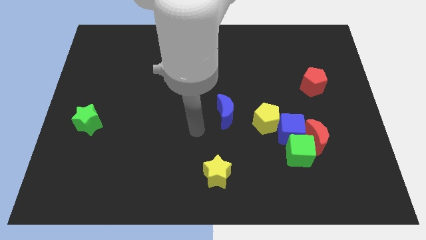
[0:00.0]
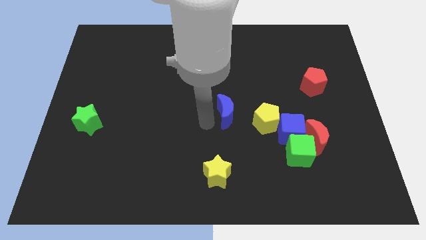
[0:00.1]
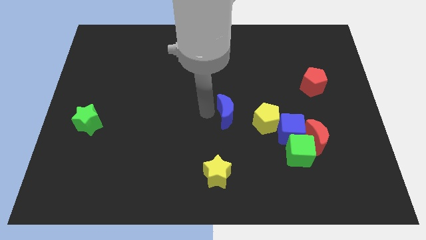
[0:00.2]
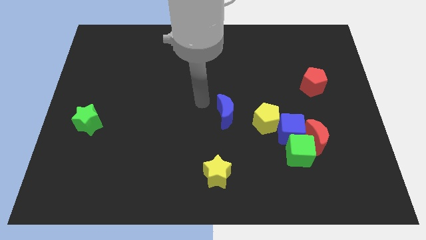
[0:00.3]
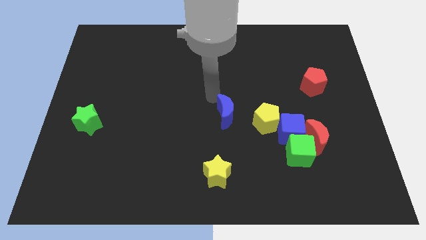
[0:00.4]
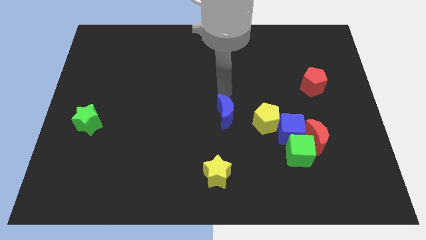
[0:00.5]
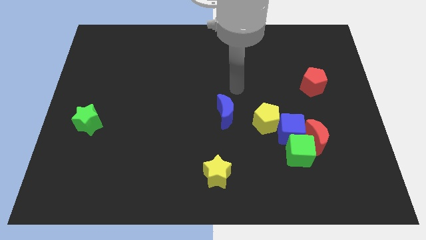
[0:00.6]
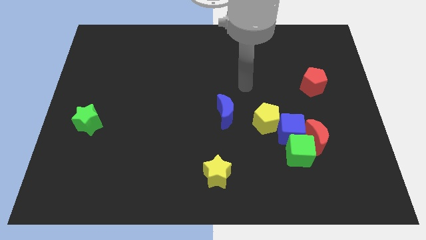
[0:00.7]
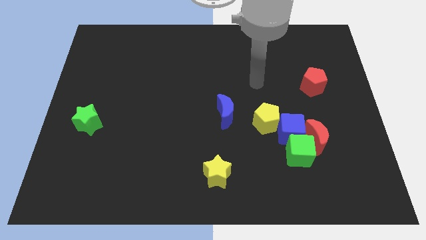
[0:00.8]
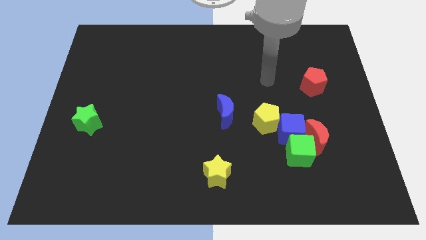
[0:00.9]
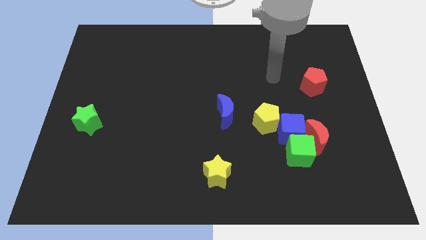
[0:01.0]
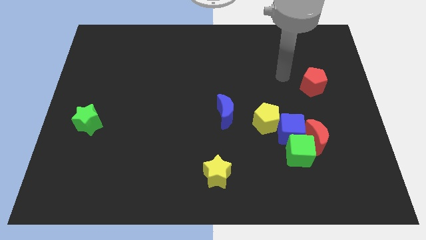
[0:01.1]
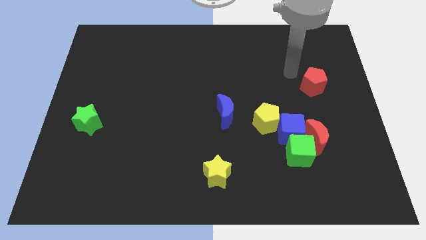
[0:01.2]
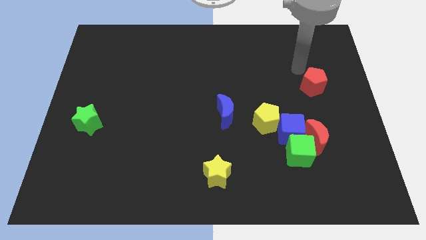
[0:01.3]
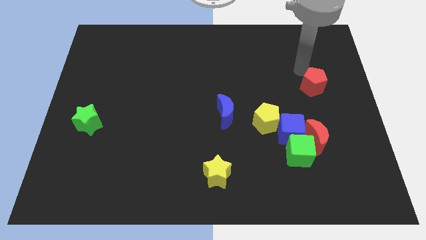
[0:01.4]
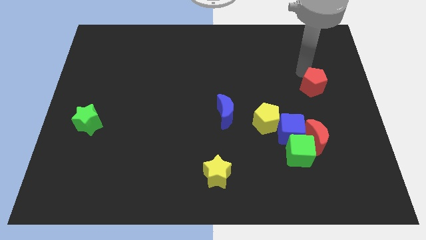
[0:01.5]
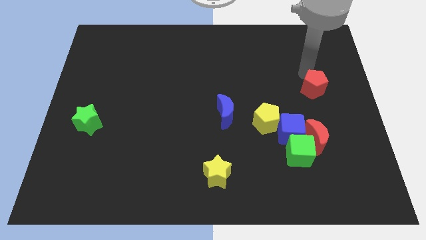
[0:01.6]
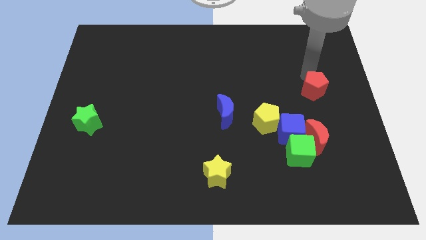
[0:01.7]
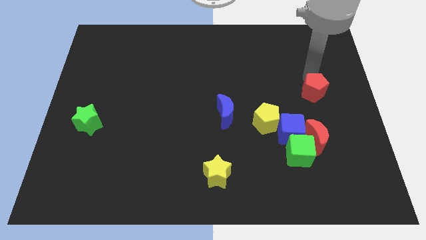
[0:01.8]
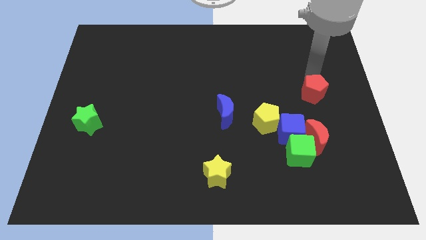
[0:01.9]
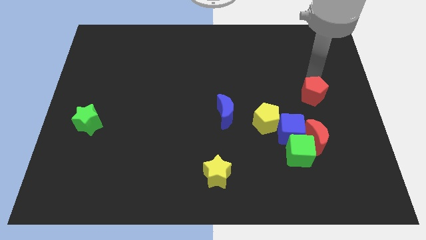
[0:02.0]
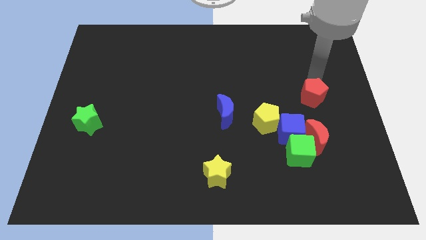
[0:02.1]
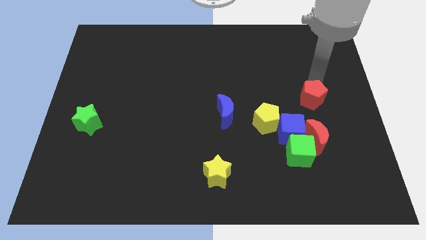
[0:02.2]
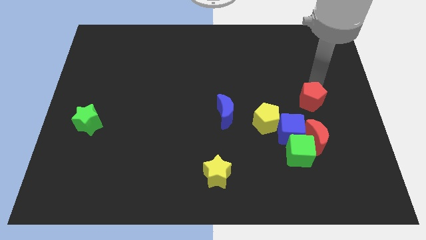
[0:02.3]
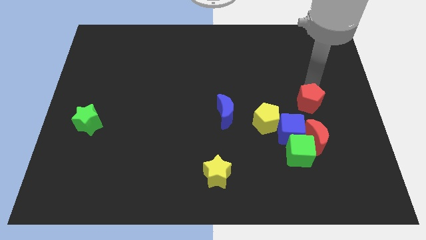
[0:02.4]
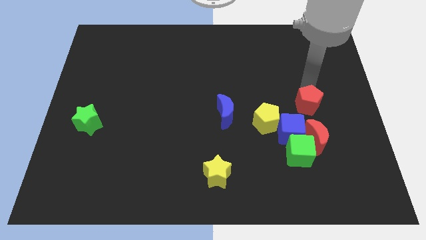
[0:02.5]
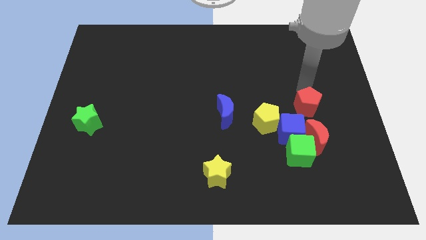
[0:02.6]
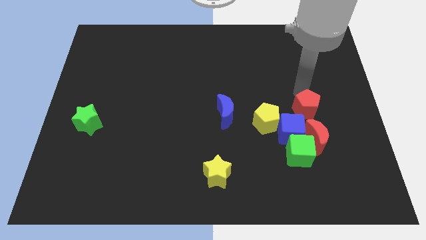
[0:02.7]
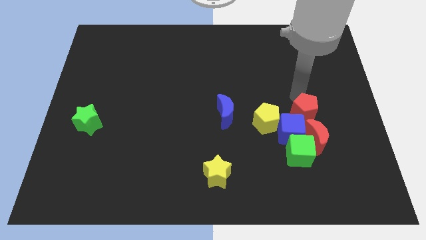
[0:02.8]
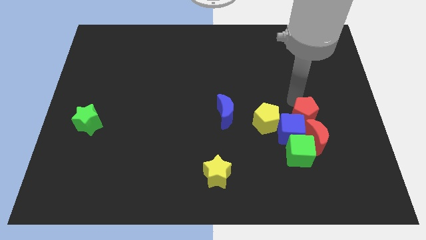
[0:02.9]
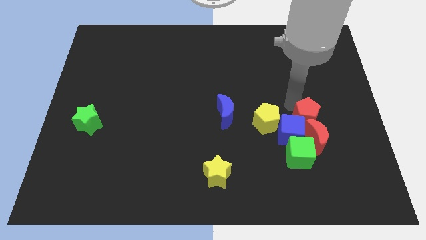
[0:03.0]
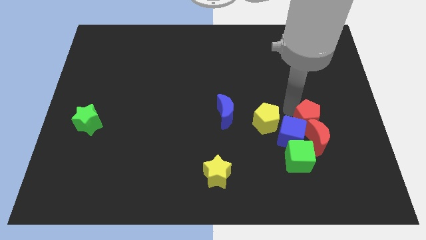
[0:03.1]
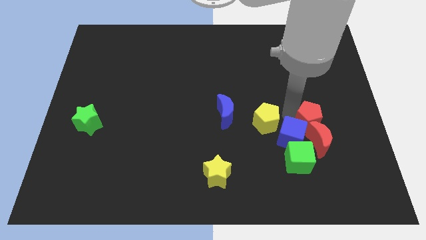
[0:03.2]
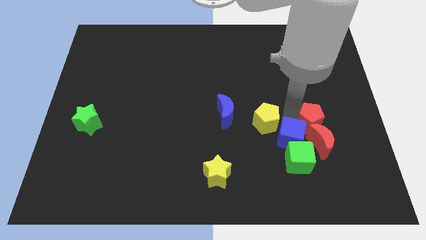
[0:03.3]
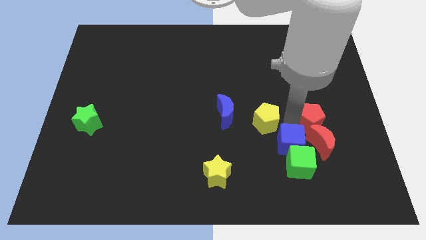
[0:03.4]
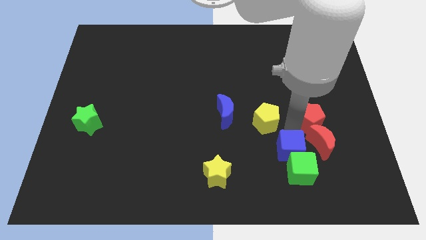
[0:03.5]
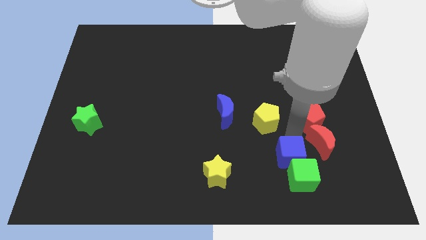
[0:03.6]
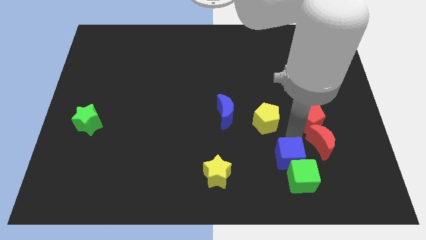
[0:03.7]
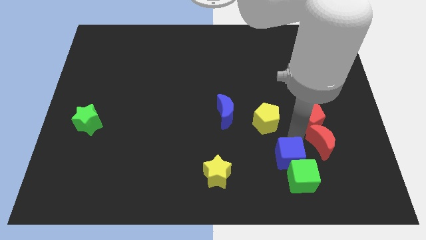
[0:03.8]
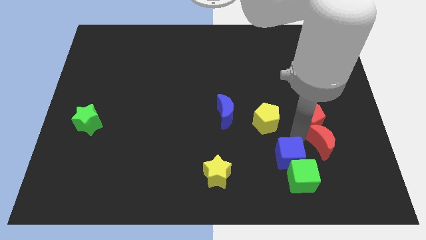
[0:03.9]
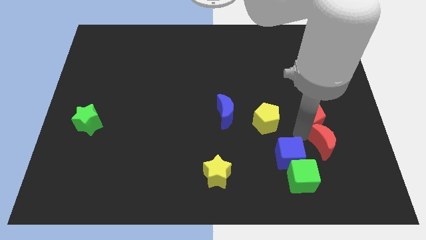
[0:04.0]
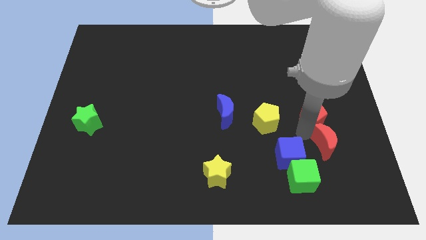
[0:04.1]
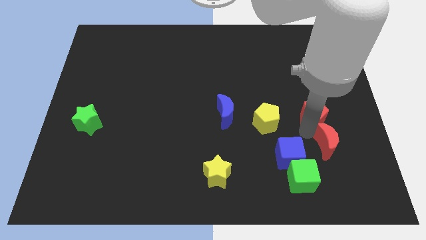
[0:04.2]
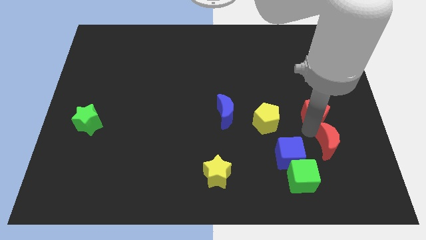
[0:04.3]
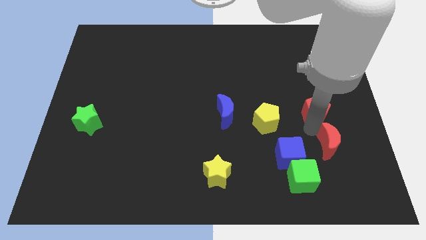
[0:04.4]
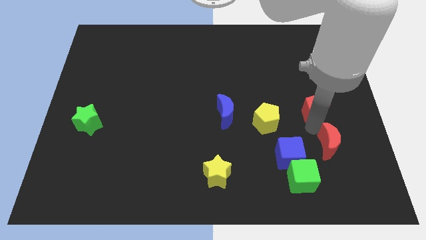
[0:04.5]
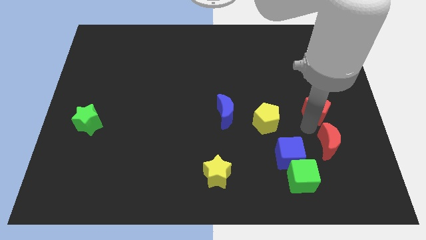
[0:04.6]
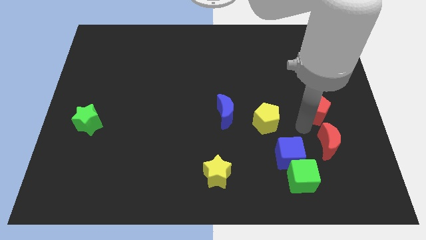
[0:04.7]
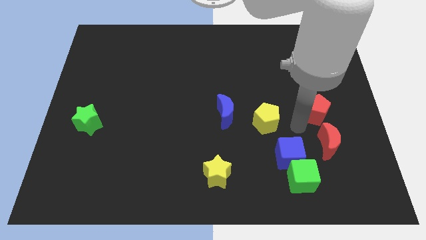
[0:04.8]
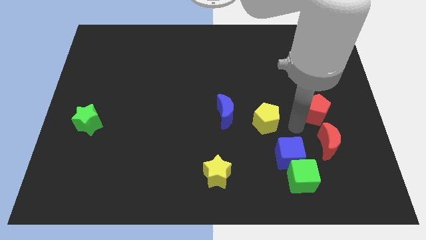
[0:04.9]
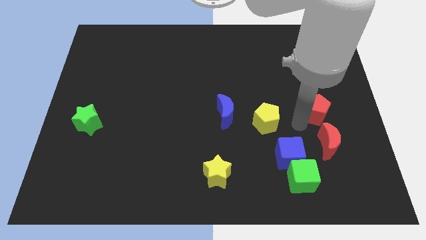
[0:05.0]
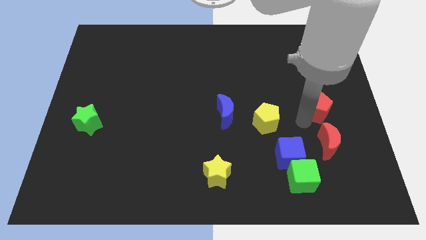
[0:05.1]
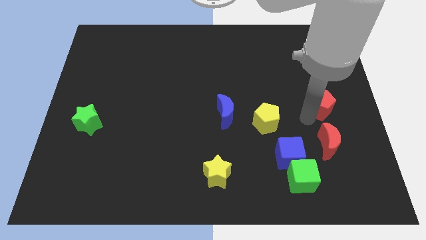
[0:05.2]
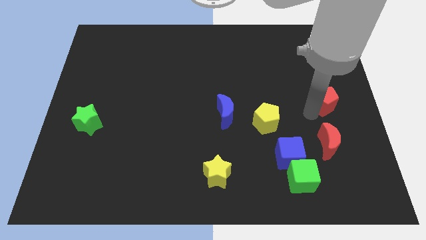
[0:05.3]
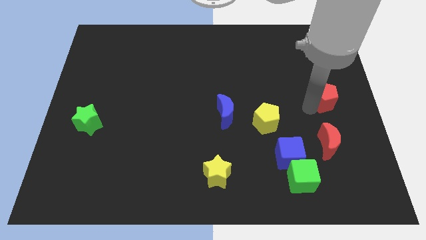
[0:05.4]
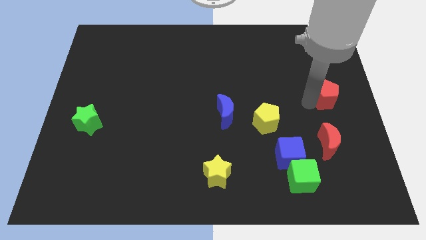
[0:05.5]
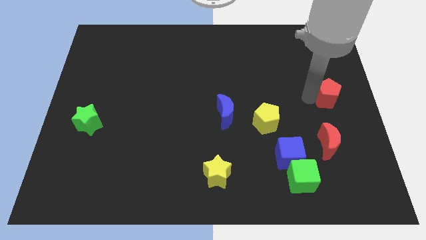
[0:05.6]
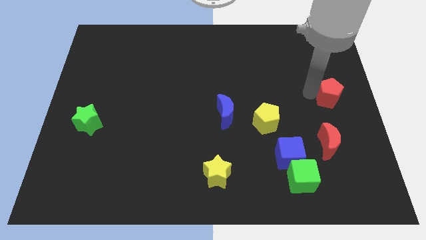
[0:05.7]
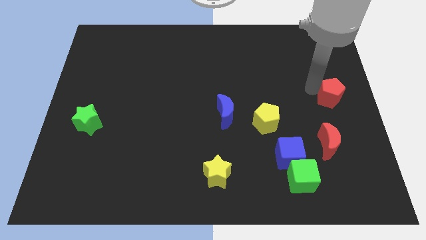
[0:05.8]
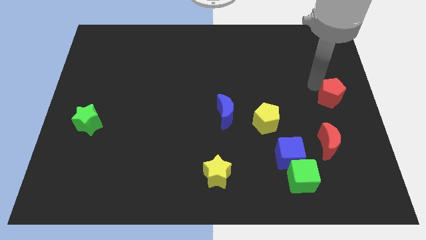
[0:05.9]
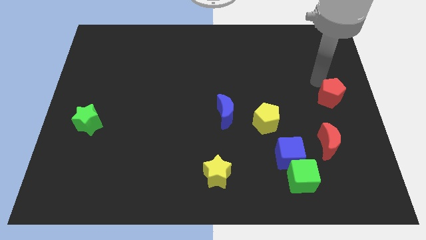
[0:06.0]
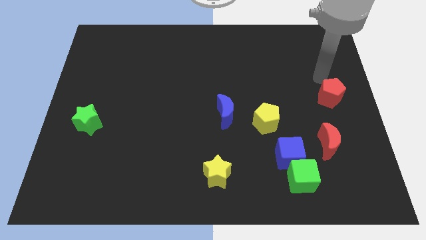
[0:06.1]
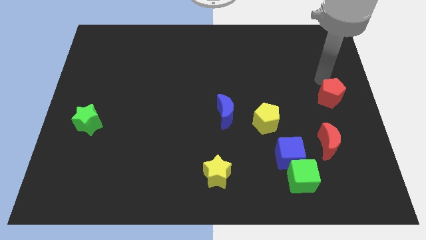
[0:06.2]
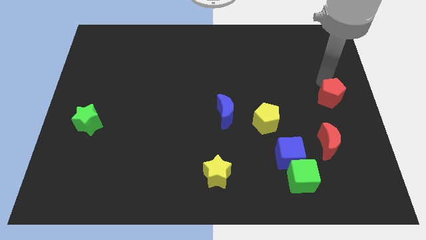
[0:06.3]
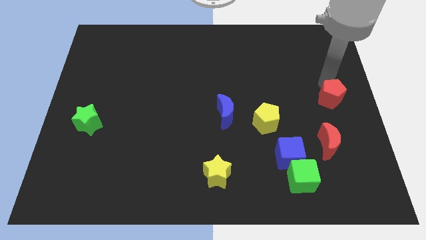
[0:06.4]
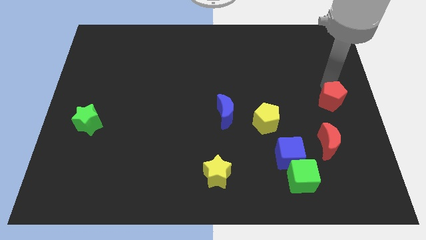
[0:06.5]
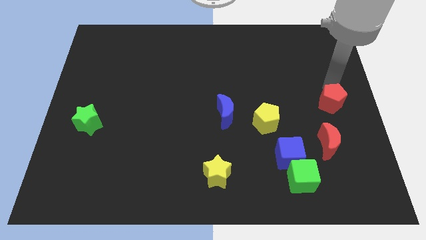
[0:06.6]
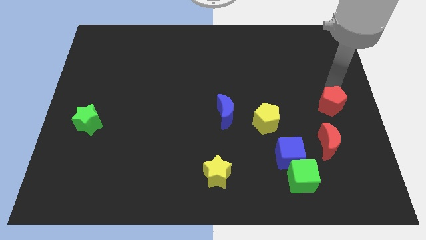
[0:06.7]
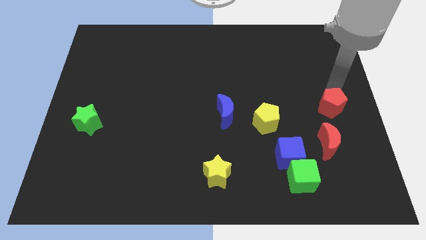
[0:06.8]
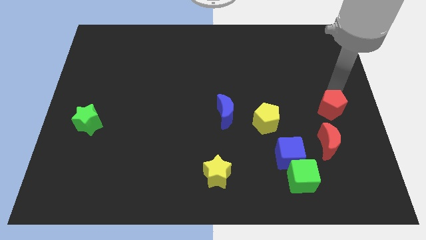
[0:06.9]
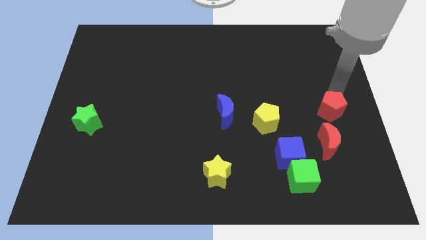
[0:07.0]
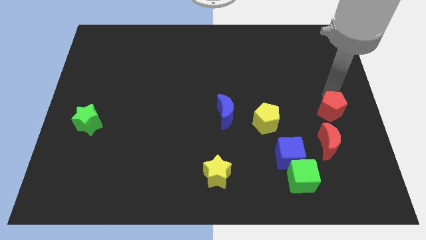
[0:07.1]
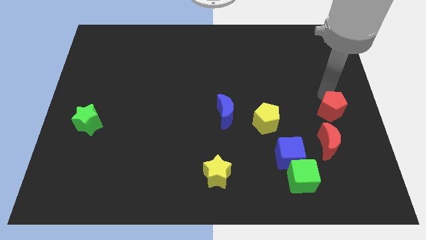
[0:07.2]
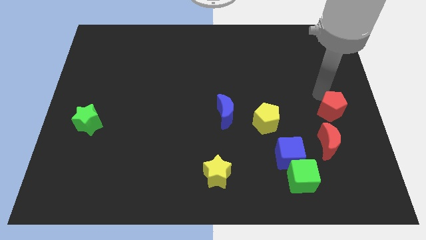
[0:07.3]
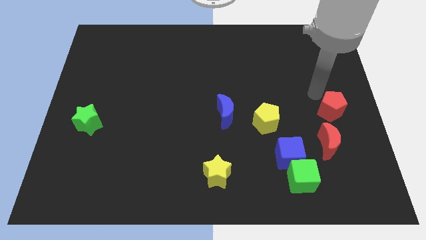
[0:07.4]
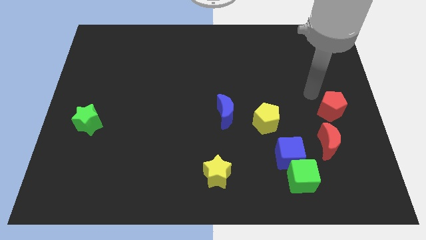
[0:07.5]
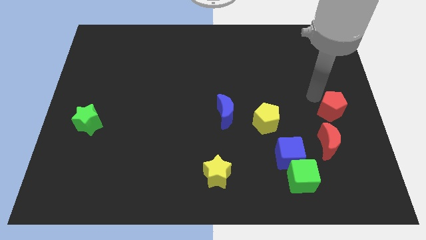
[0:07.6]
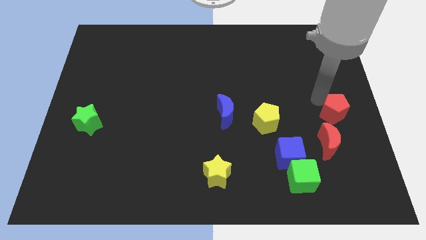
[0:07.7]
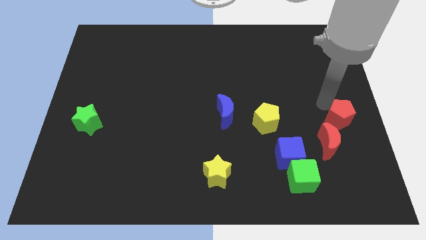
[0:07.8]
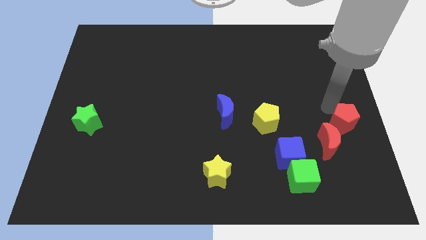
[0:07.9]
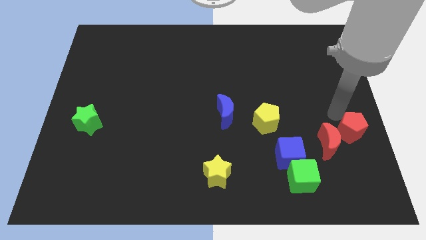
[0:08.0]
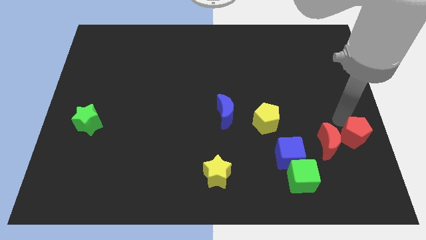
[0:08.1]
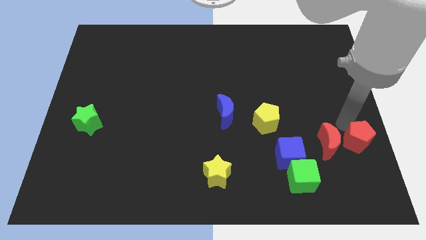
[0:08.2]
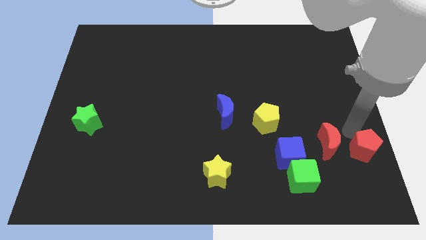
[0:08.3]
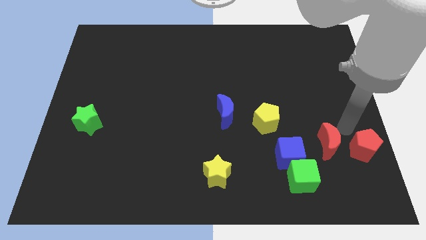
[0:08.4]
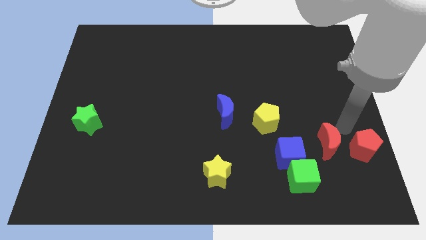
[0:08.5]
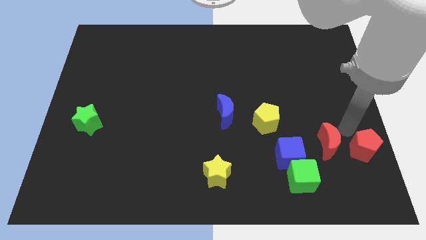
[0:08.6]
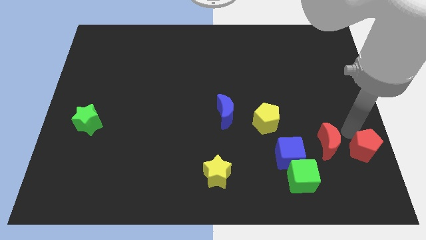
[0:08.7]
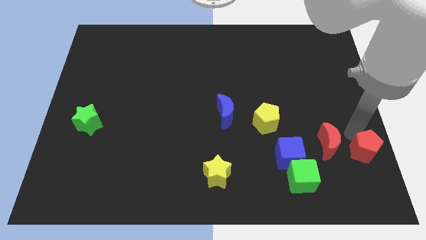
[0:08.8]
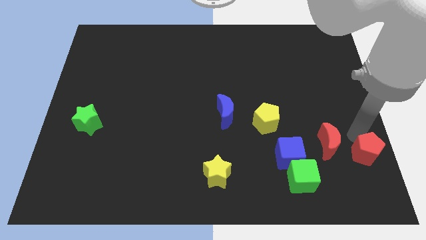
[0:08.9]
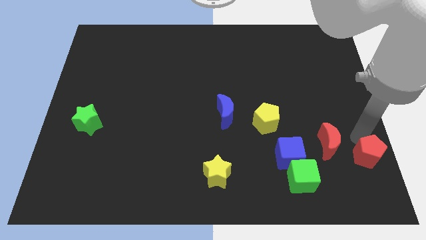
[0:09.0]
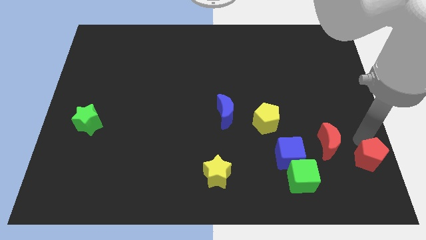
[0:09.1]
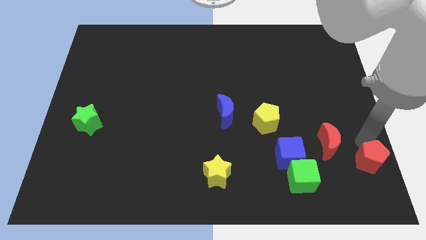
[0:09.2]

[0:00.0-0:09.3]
push the red pentagon to the lower right corner
